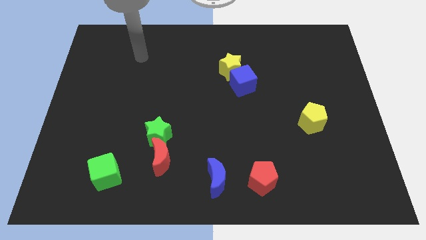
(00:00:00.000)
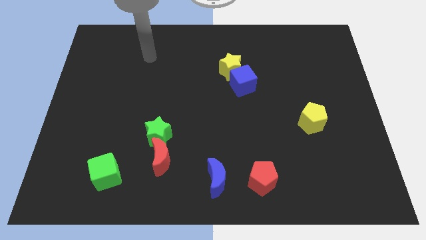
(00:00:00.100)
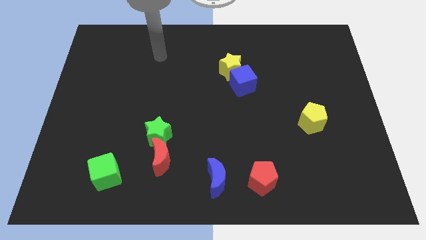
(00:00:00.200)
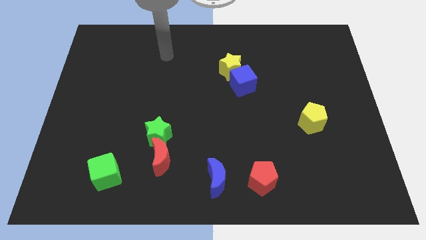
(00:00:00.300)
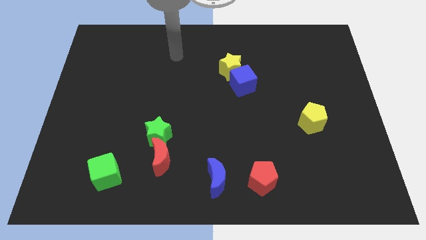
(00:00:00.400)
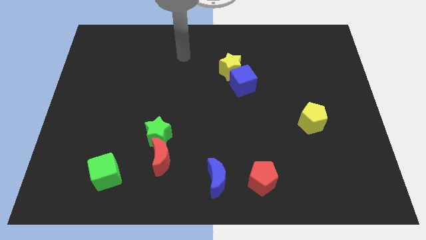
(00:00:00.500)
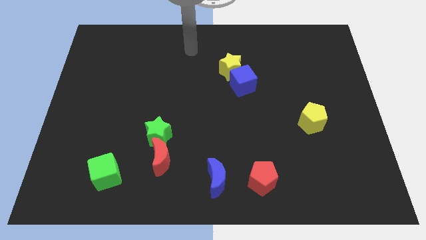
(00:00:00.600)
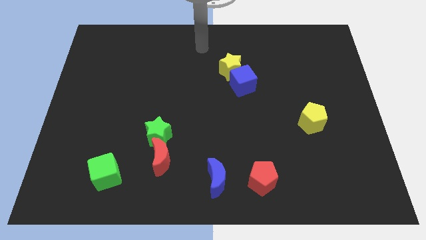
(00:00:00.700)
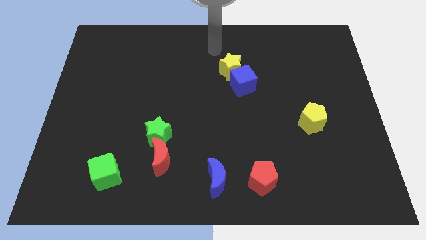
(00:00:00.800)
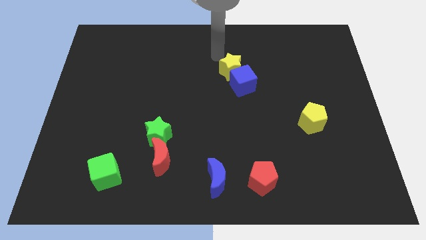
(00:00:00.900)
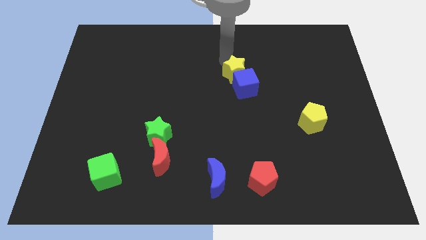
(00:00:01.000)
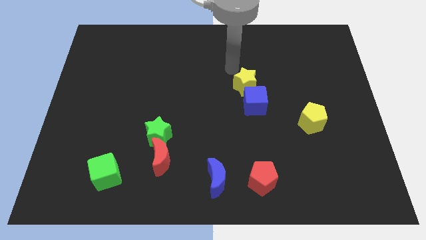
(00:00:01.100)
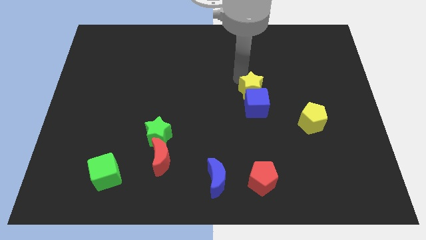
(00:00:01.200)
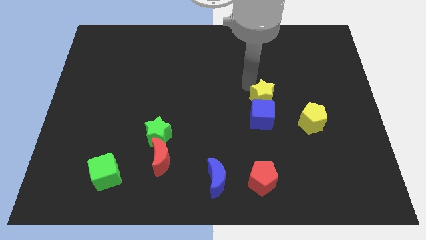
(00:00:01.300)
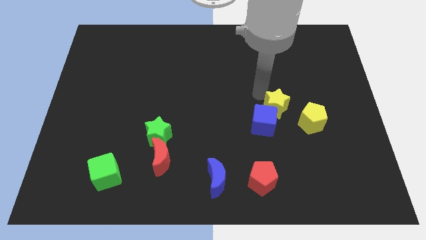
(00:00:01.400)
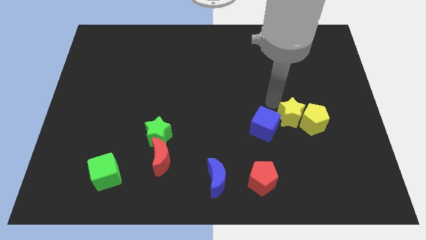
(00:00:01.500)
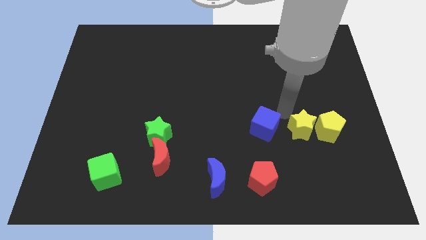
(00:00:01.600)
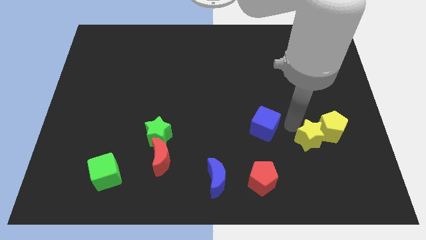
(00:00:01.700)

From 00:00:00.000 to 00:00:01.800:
move the blue cube away from the yellow star

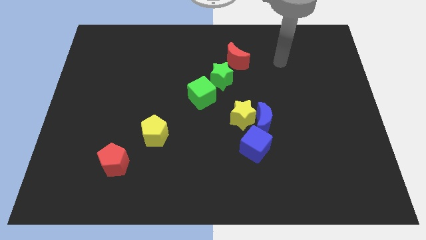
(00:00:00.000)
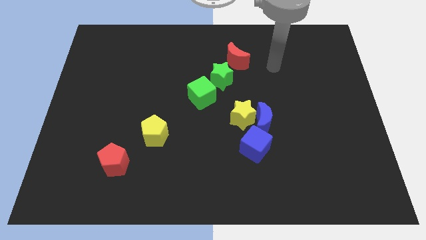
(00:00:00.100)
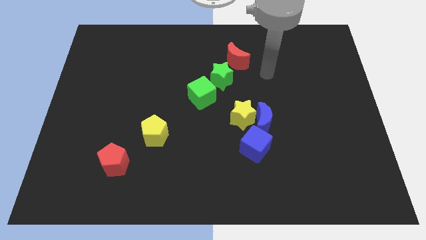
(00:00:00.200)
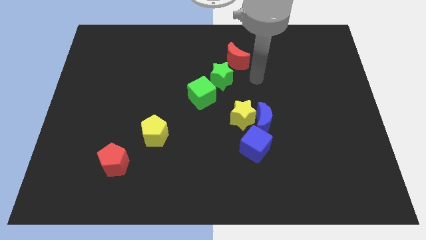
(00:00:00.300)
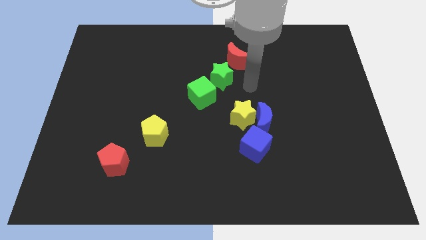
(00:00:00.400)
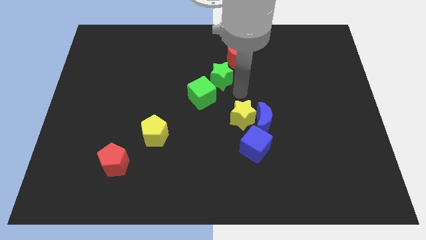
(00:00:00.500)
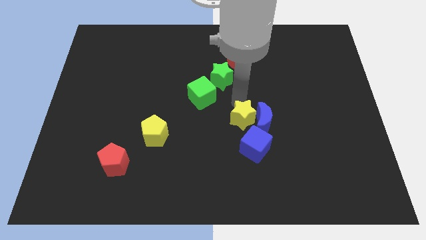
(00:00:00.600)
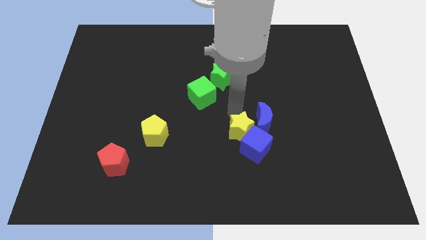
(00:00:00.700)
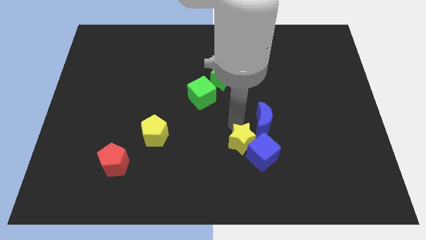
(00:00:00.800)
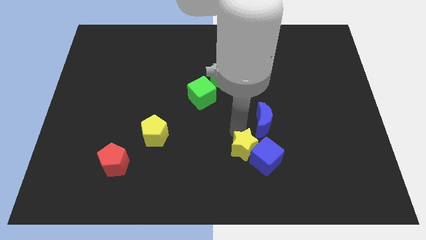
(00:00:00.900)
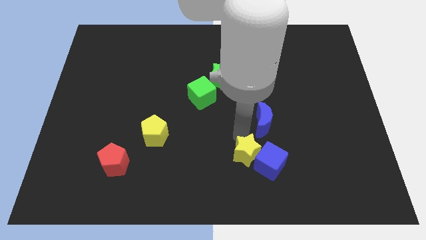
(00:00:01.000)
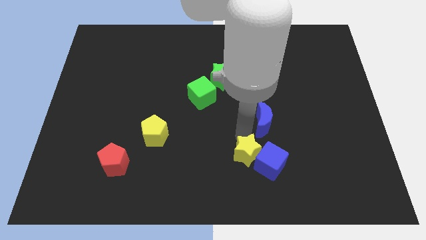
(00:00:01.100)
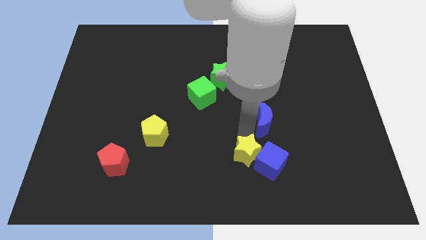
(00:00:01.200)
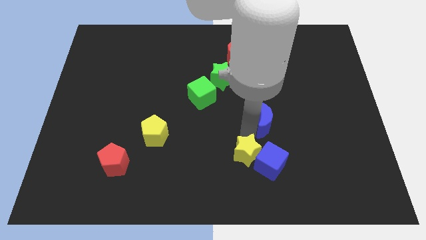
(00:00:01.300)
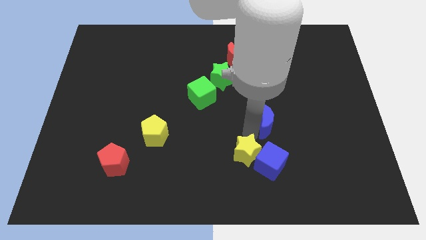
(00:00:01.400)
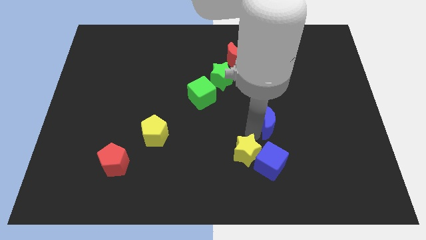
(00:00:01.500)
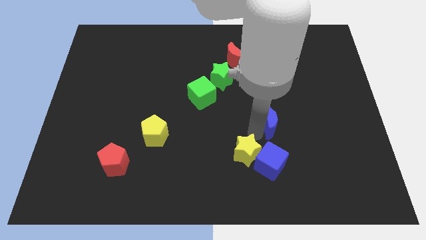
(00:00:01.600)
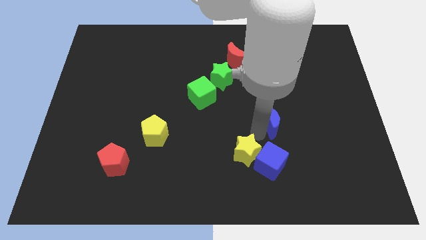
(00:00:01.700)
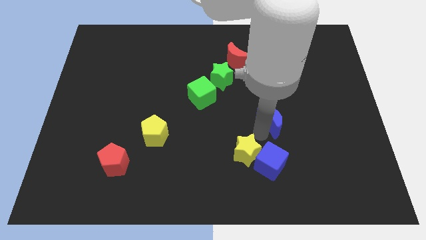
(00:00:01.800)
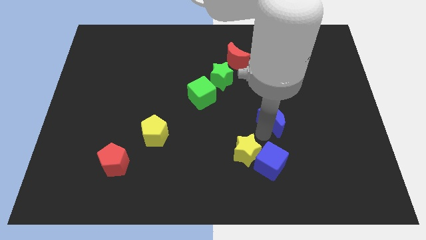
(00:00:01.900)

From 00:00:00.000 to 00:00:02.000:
separate the blue moon from the yellow star and blue cube

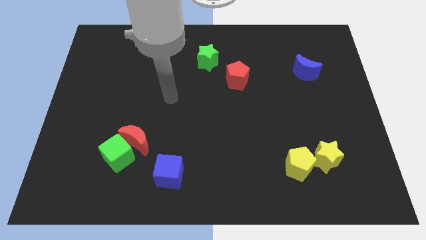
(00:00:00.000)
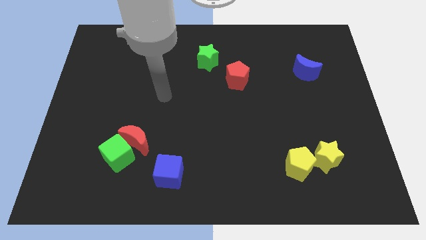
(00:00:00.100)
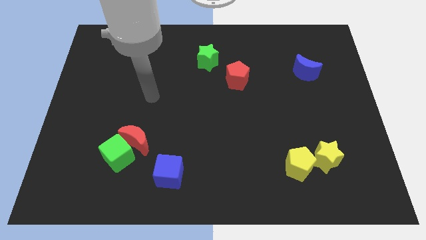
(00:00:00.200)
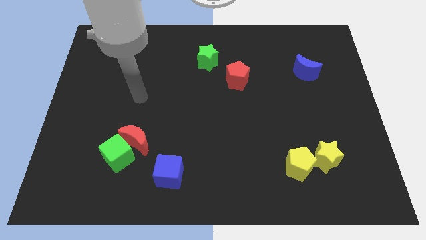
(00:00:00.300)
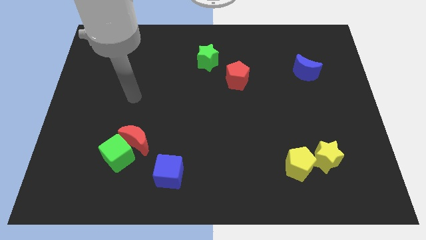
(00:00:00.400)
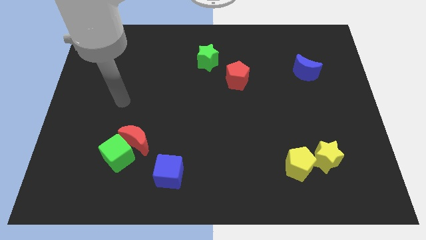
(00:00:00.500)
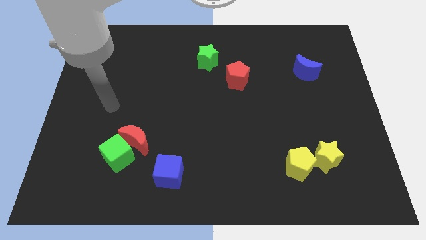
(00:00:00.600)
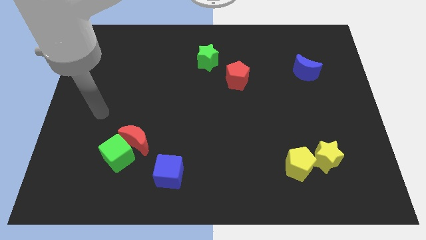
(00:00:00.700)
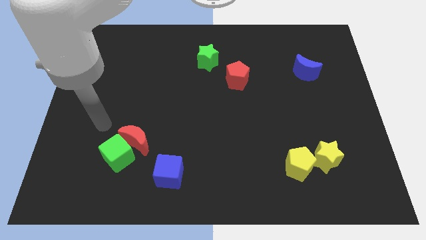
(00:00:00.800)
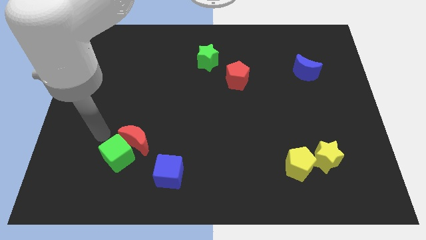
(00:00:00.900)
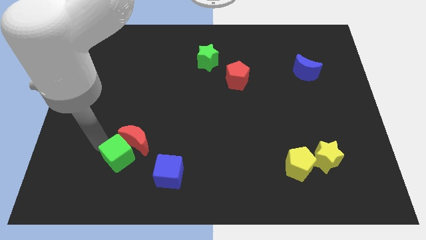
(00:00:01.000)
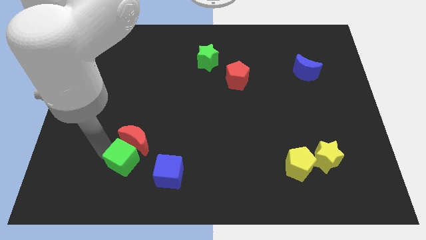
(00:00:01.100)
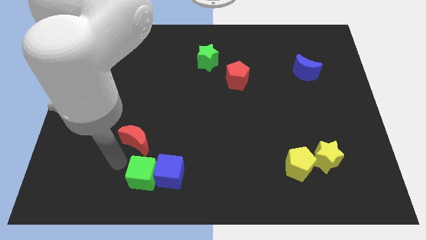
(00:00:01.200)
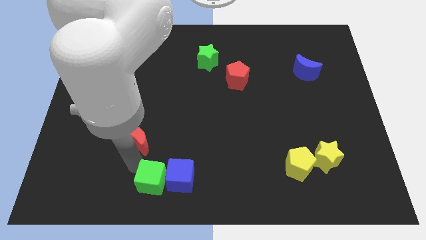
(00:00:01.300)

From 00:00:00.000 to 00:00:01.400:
move the red moon away from the green cube

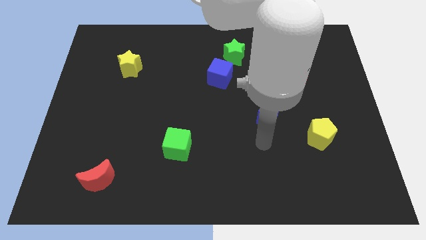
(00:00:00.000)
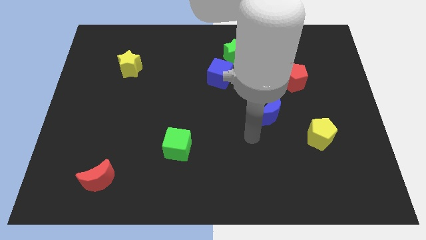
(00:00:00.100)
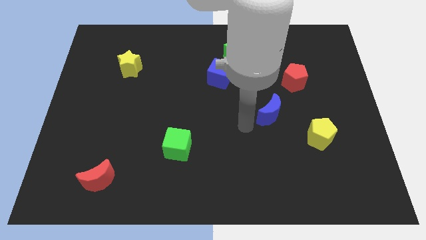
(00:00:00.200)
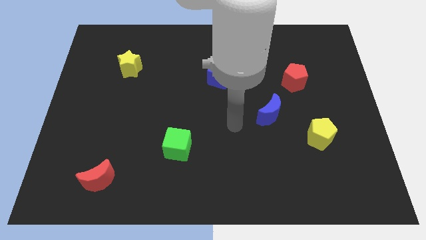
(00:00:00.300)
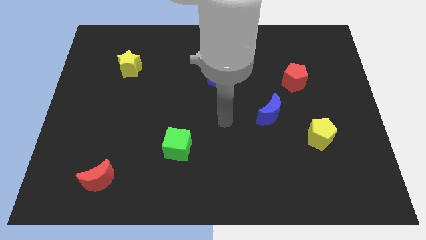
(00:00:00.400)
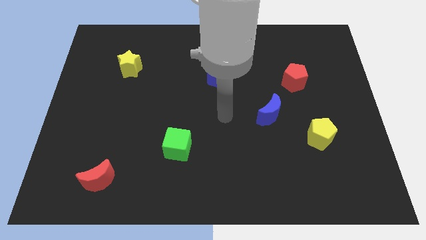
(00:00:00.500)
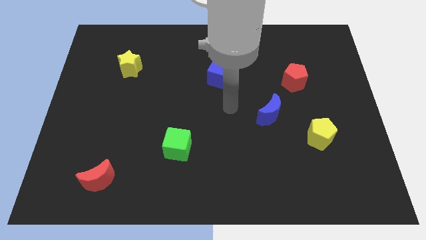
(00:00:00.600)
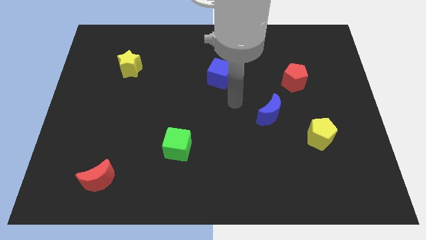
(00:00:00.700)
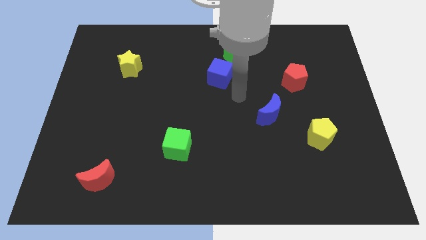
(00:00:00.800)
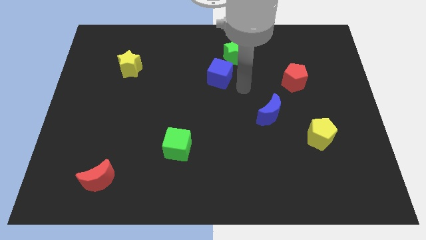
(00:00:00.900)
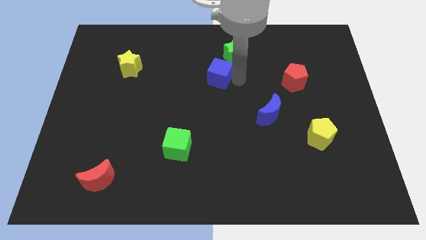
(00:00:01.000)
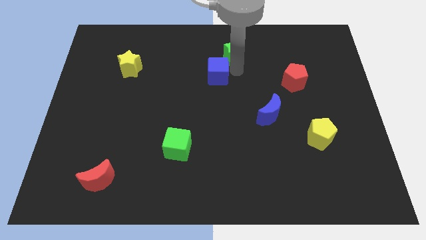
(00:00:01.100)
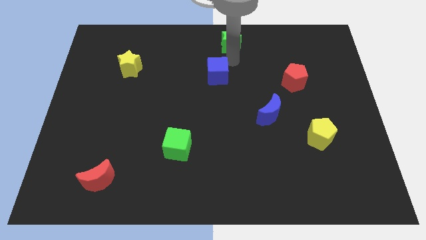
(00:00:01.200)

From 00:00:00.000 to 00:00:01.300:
move the blue cube away from the green star

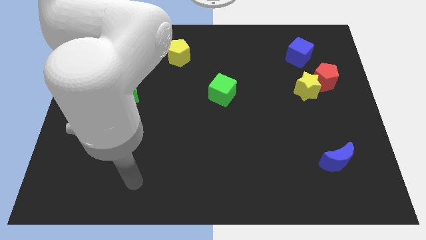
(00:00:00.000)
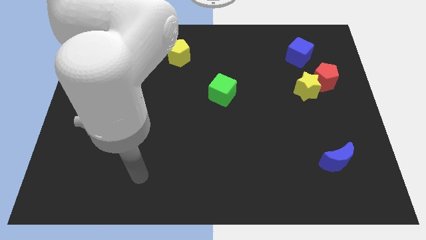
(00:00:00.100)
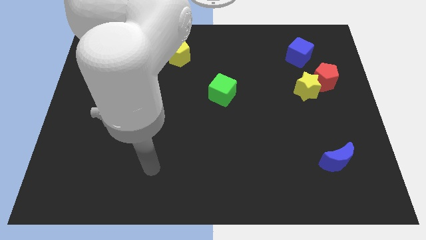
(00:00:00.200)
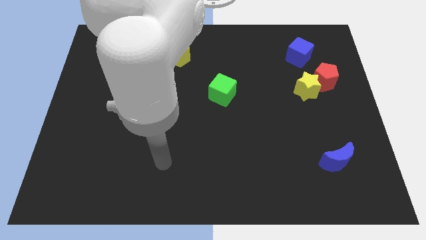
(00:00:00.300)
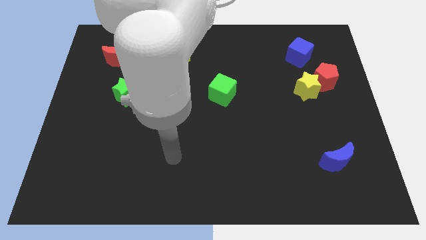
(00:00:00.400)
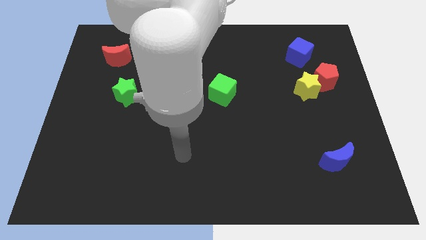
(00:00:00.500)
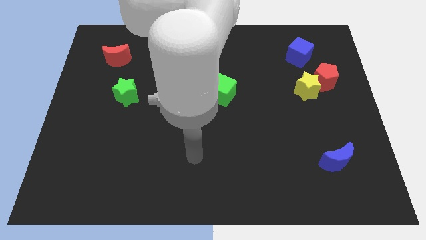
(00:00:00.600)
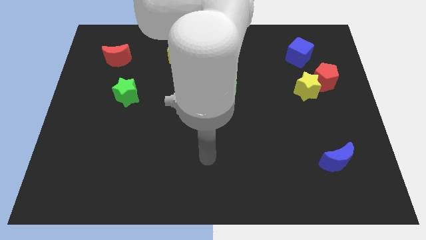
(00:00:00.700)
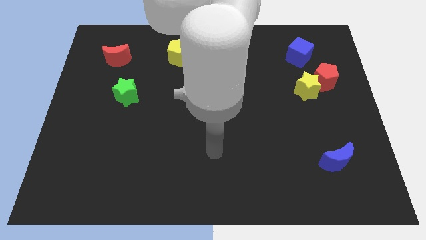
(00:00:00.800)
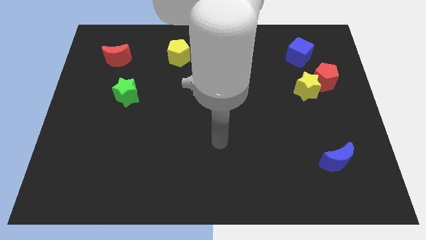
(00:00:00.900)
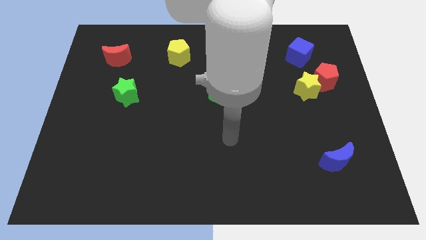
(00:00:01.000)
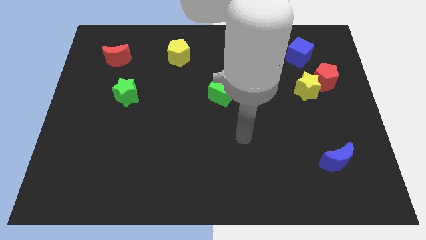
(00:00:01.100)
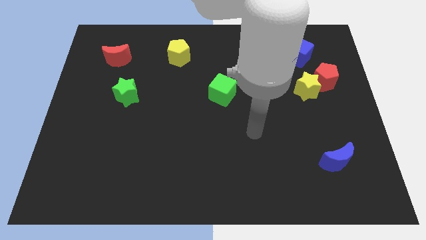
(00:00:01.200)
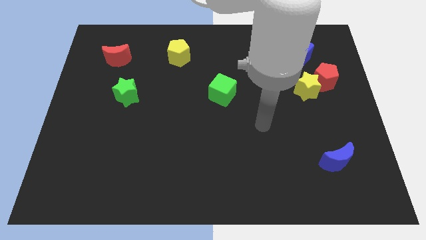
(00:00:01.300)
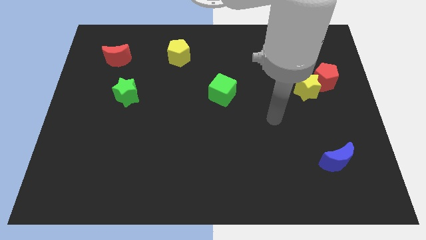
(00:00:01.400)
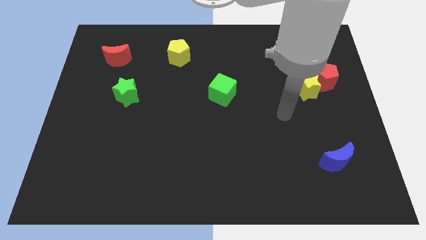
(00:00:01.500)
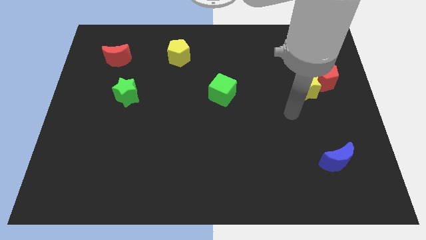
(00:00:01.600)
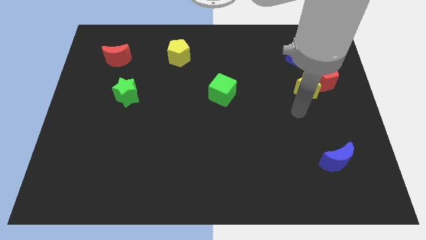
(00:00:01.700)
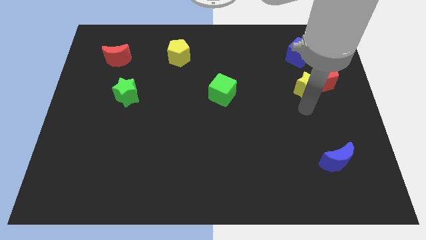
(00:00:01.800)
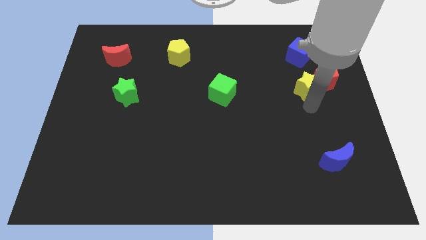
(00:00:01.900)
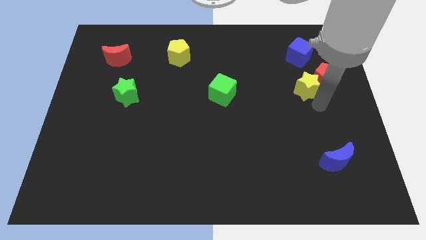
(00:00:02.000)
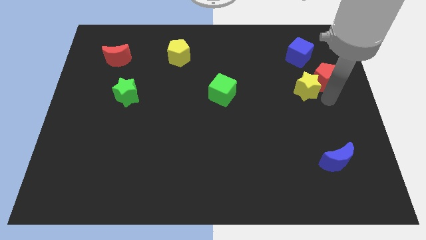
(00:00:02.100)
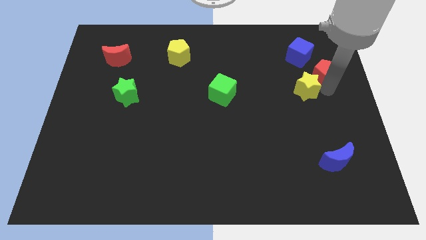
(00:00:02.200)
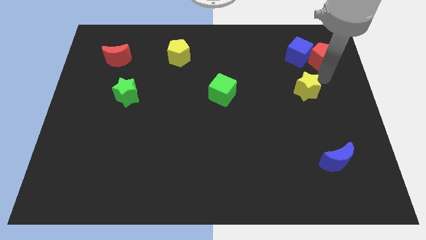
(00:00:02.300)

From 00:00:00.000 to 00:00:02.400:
separate the yellow star from the red pentagon

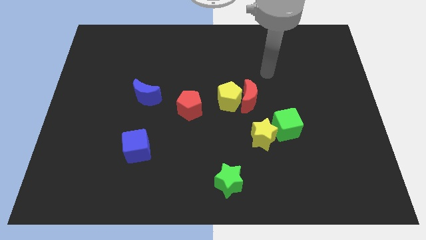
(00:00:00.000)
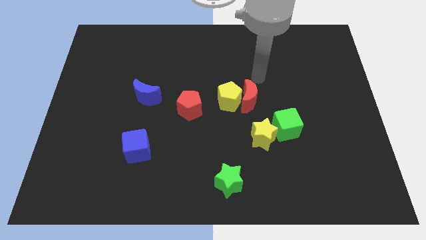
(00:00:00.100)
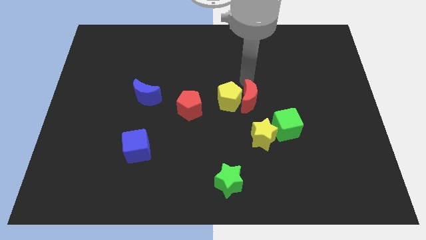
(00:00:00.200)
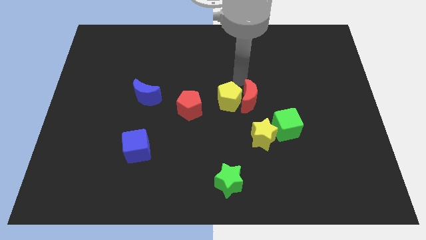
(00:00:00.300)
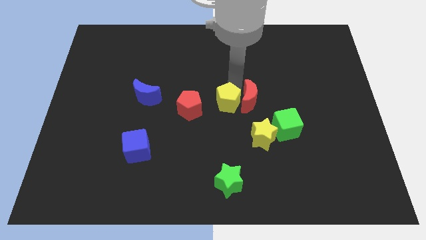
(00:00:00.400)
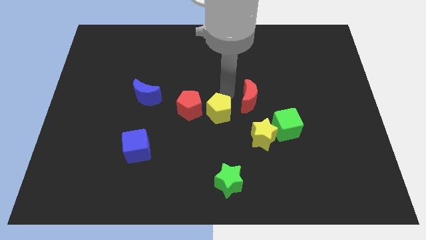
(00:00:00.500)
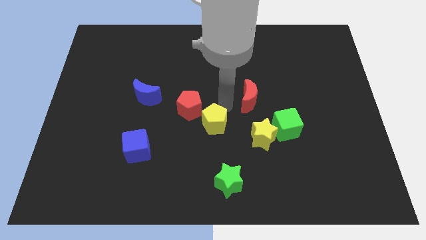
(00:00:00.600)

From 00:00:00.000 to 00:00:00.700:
move the red moon away from the yellow pentagon
